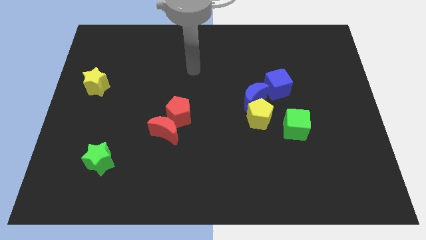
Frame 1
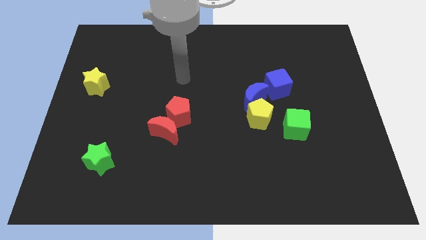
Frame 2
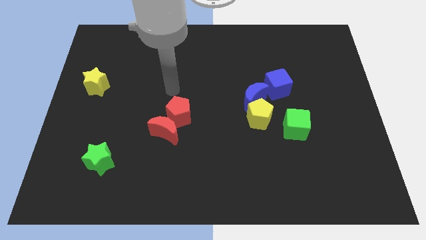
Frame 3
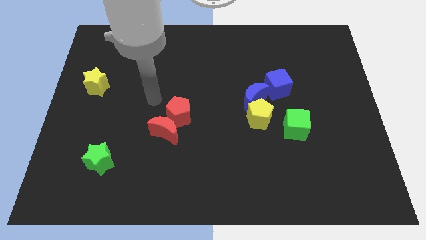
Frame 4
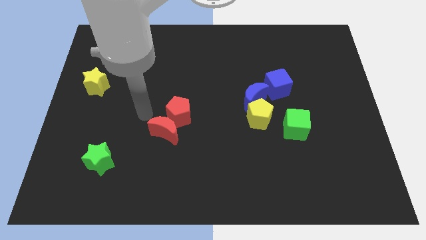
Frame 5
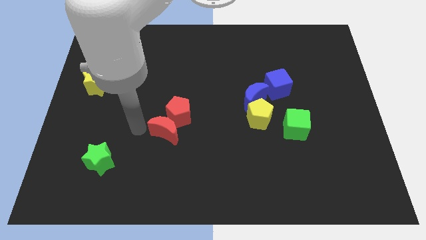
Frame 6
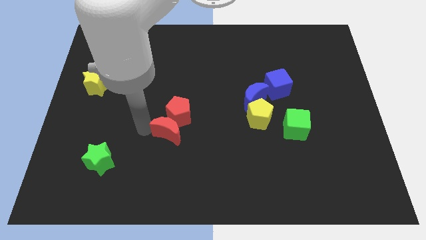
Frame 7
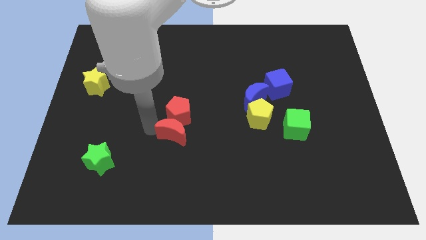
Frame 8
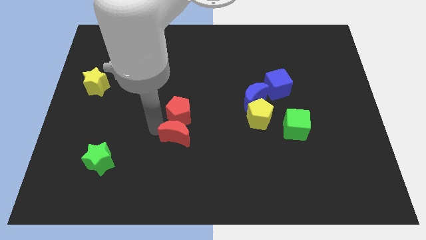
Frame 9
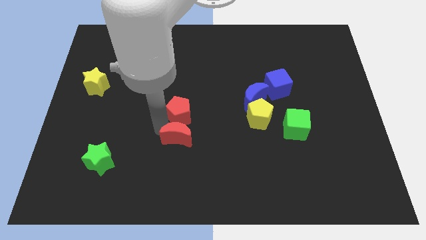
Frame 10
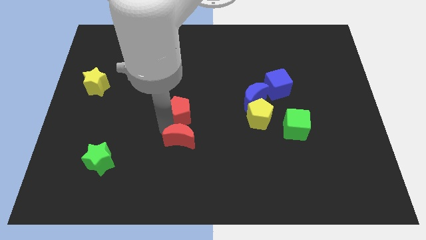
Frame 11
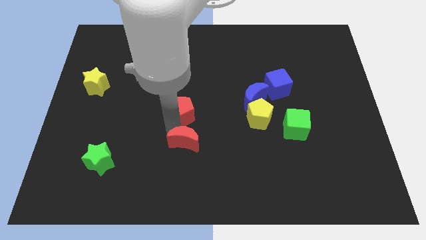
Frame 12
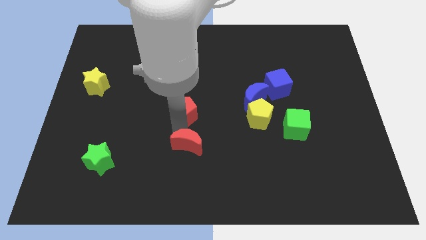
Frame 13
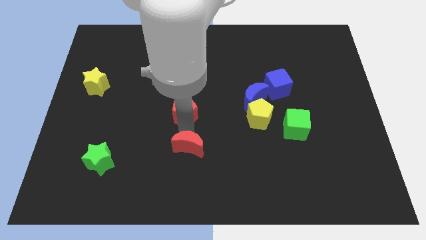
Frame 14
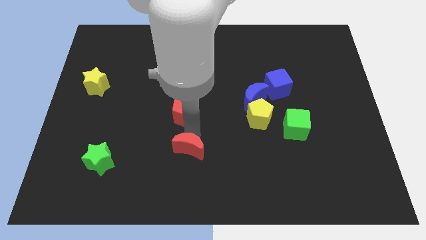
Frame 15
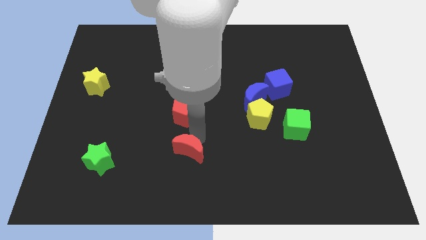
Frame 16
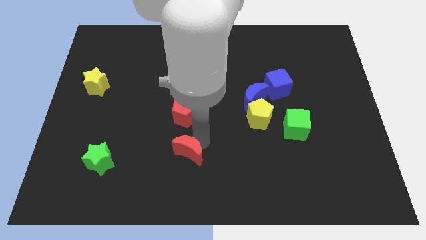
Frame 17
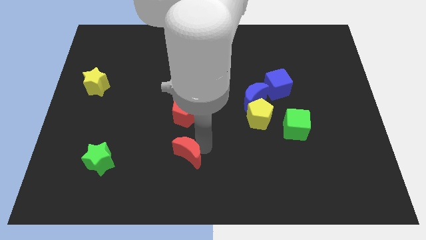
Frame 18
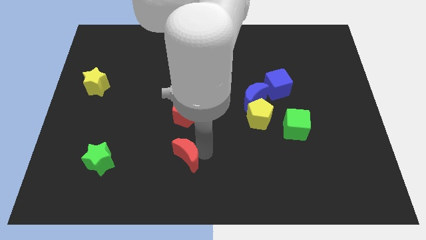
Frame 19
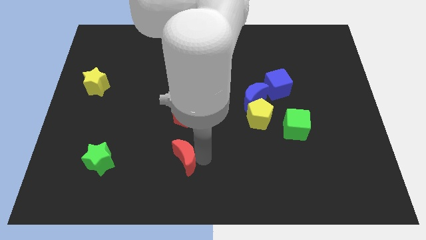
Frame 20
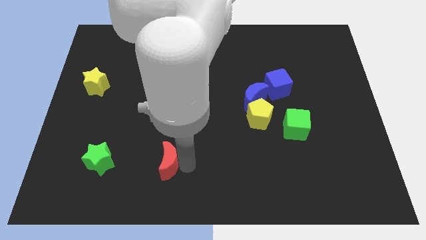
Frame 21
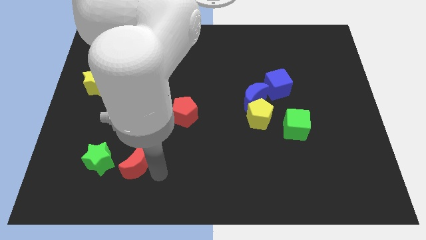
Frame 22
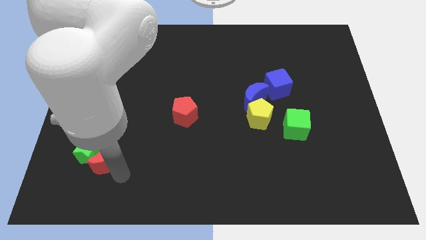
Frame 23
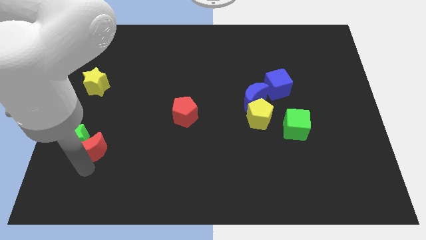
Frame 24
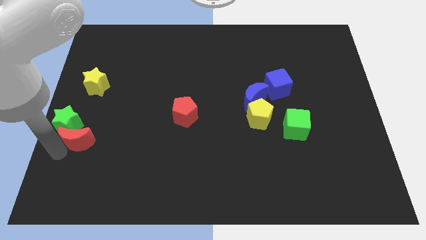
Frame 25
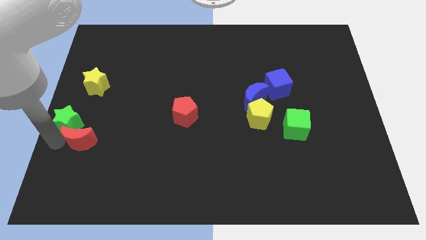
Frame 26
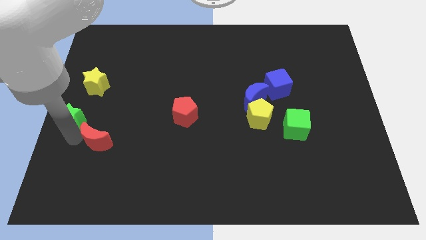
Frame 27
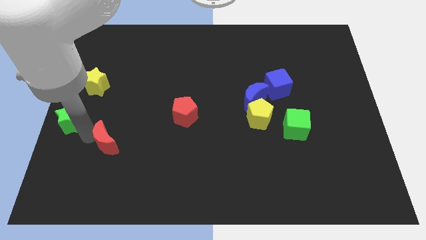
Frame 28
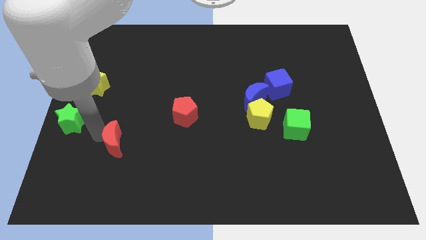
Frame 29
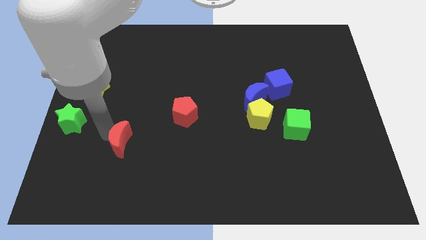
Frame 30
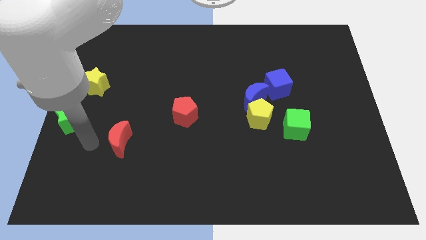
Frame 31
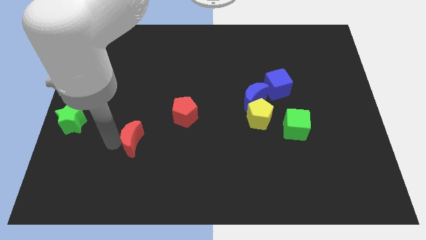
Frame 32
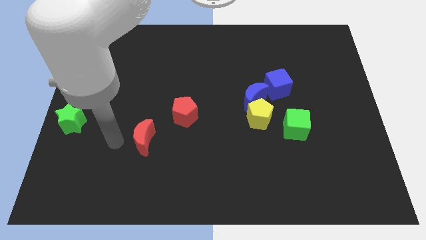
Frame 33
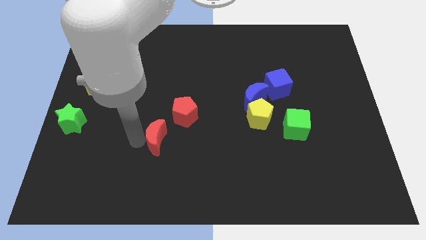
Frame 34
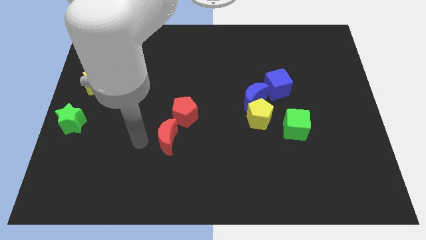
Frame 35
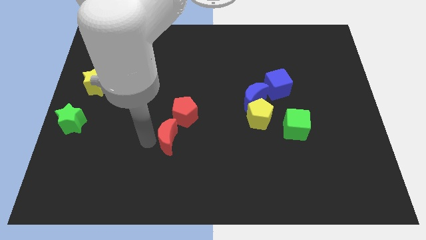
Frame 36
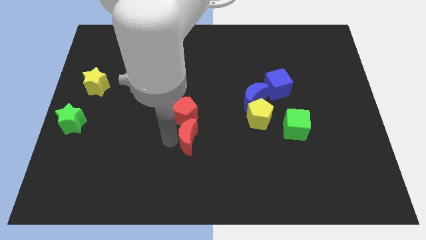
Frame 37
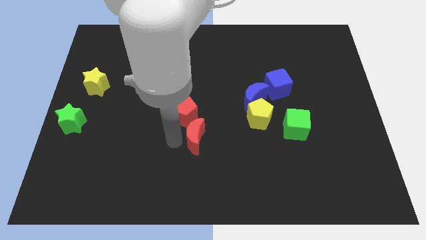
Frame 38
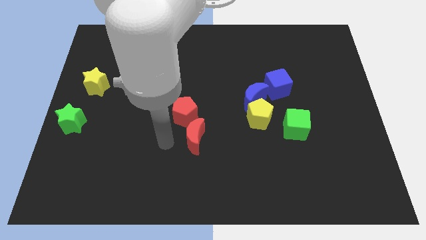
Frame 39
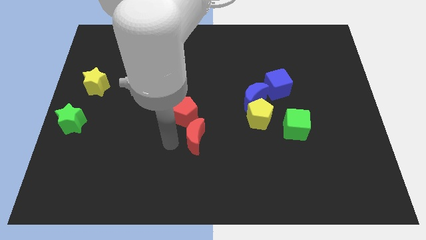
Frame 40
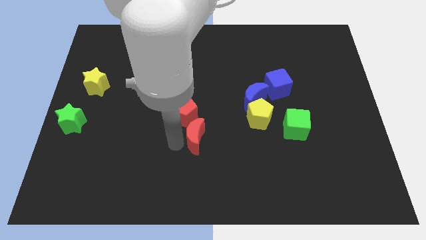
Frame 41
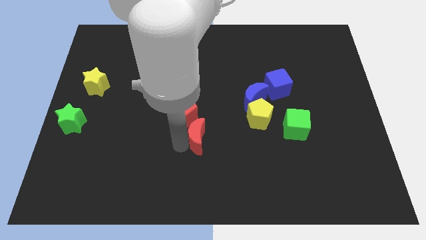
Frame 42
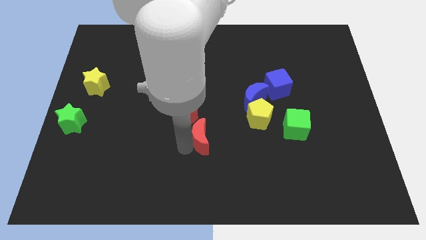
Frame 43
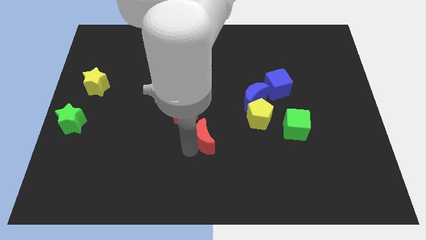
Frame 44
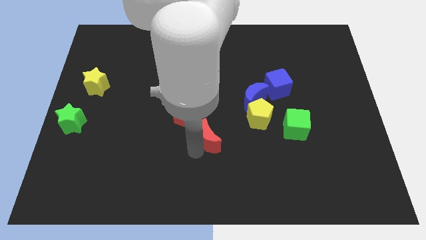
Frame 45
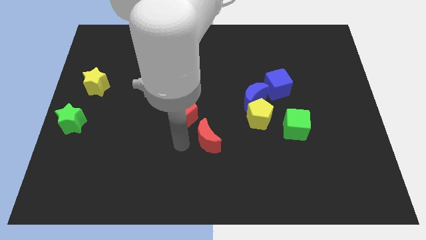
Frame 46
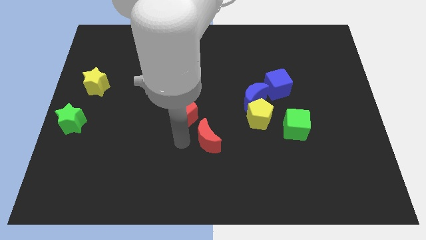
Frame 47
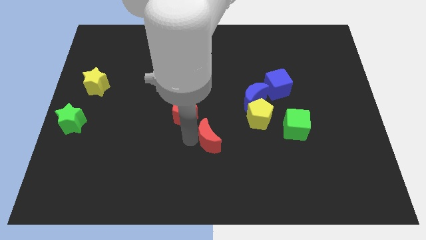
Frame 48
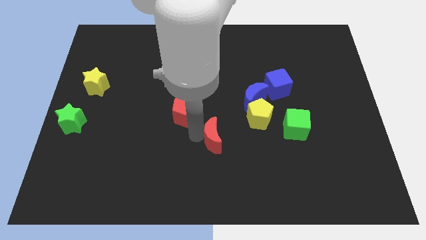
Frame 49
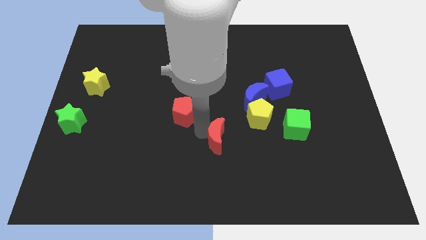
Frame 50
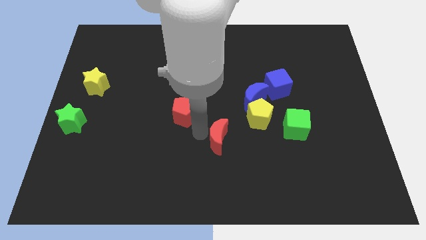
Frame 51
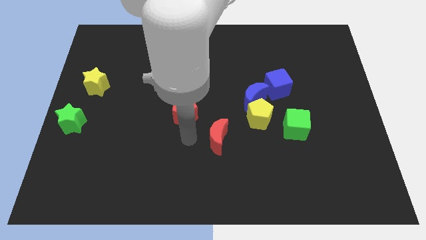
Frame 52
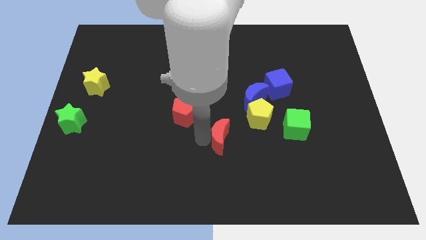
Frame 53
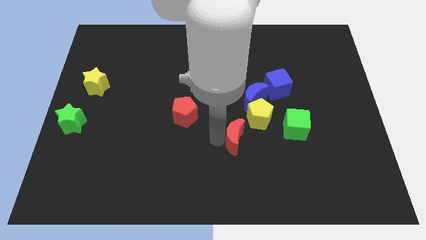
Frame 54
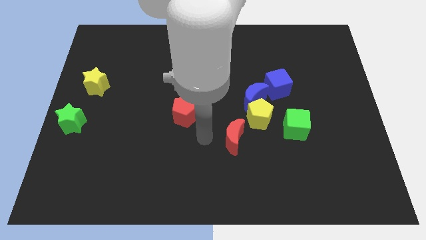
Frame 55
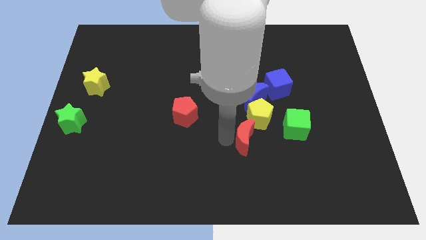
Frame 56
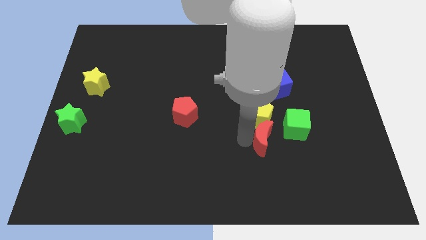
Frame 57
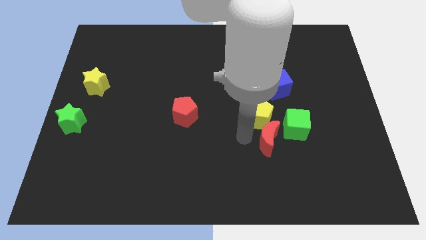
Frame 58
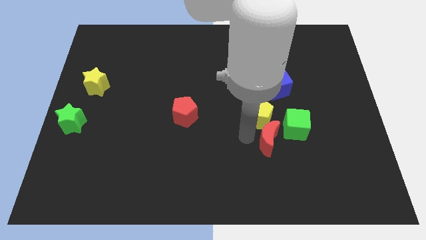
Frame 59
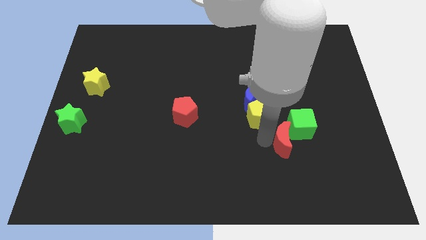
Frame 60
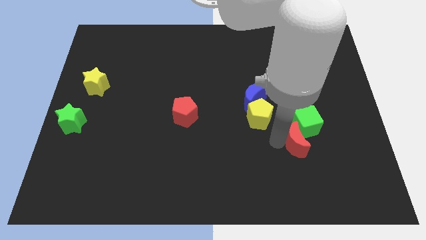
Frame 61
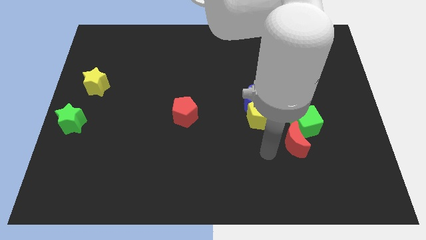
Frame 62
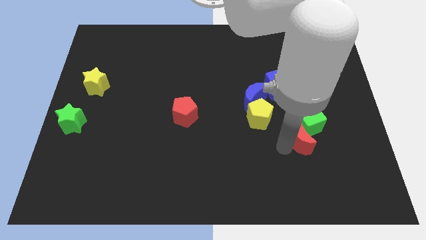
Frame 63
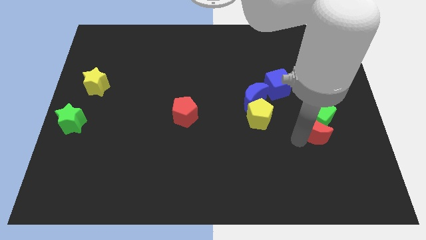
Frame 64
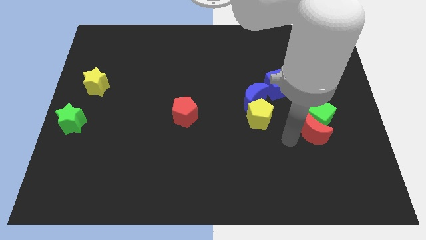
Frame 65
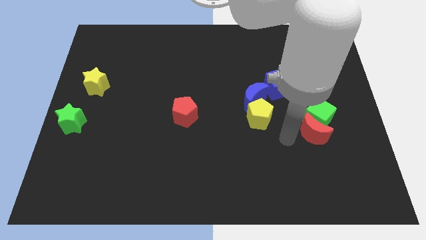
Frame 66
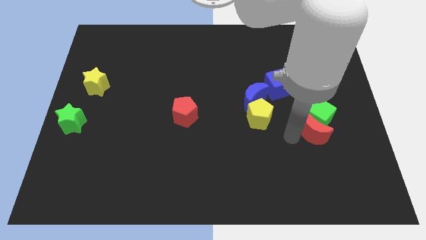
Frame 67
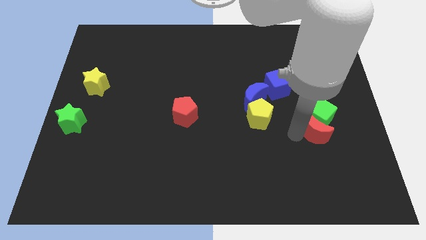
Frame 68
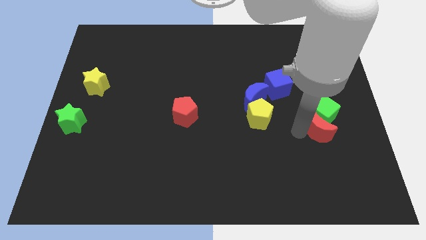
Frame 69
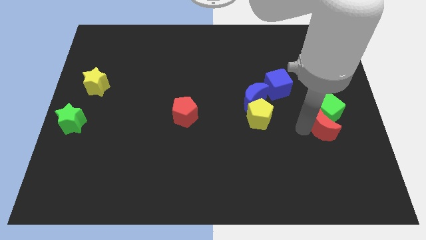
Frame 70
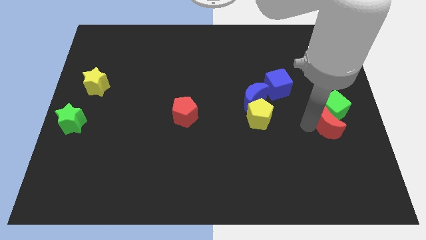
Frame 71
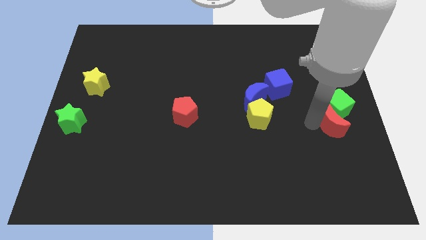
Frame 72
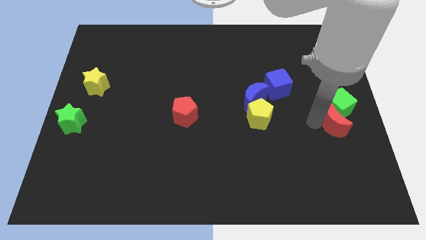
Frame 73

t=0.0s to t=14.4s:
push the red moon to the right side
